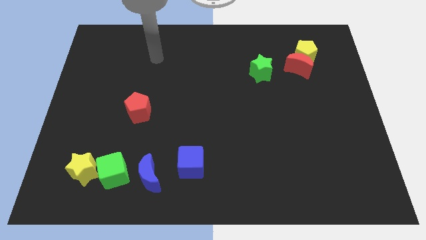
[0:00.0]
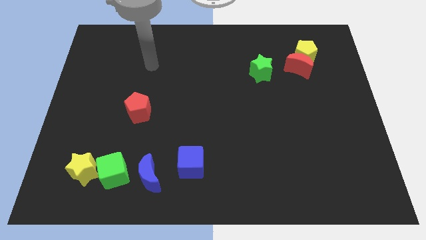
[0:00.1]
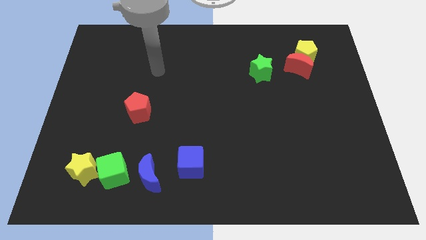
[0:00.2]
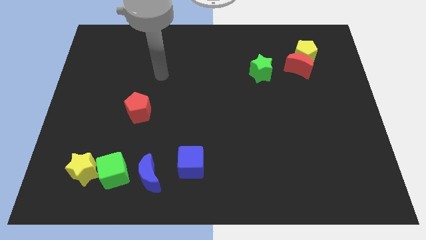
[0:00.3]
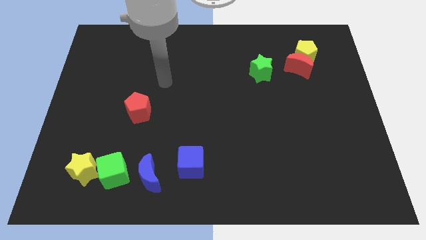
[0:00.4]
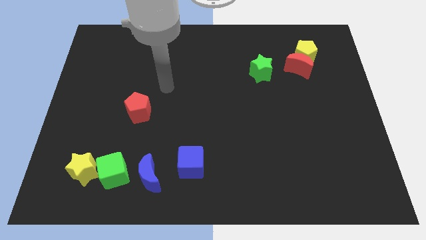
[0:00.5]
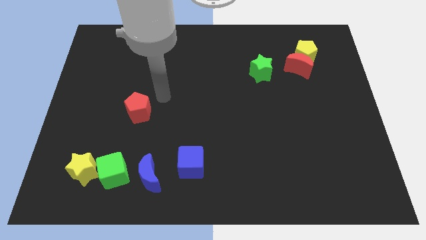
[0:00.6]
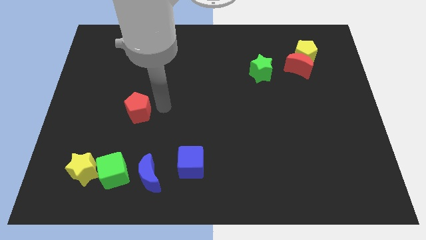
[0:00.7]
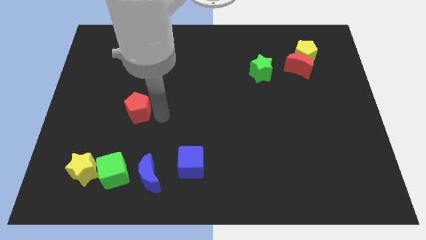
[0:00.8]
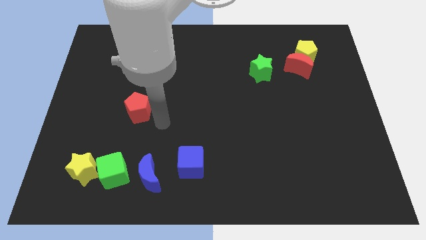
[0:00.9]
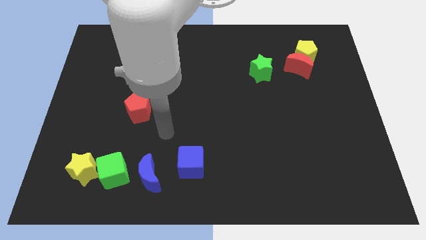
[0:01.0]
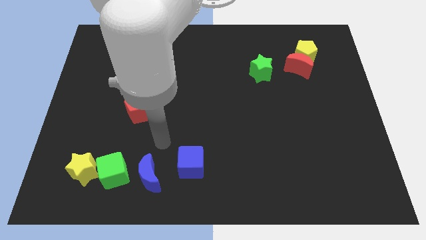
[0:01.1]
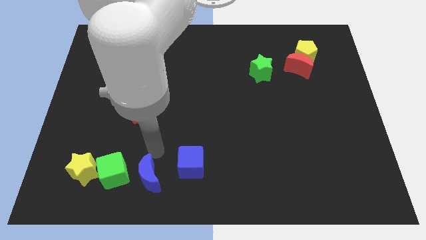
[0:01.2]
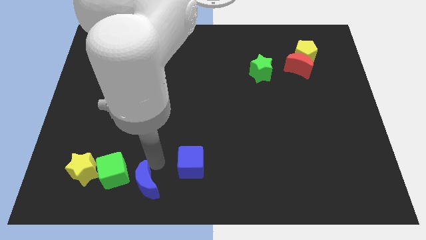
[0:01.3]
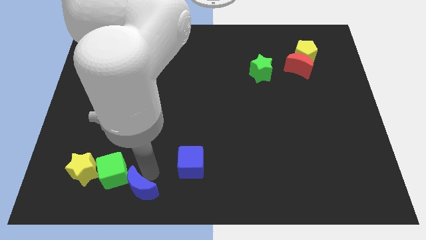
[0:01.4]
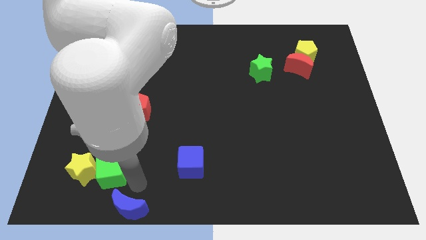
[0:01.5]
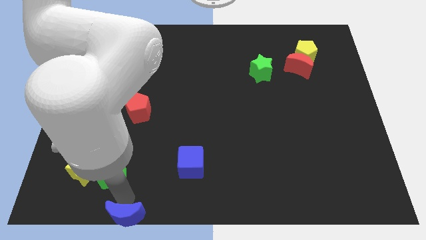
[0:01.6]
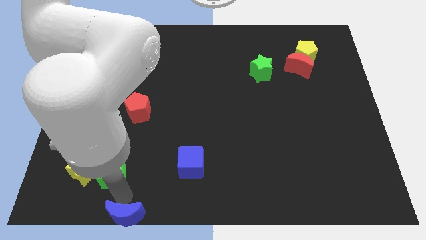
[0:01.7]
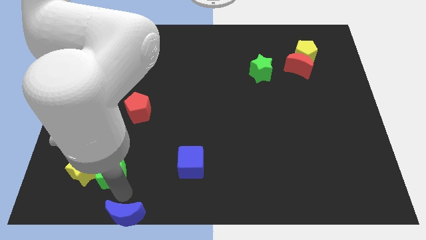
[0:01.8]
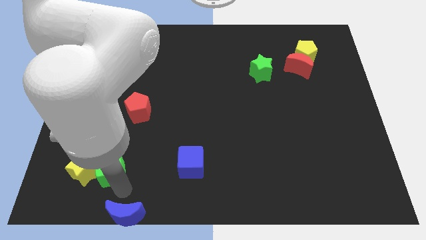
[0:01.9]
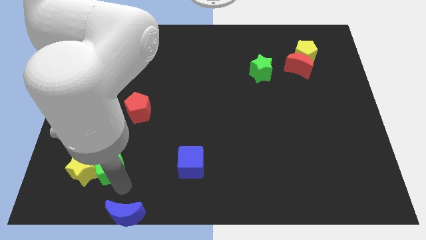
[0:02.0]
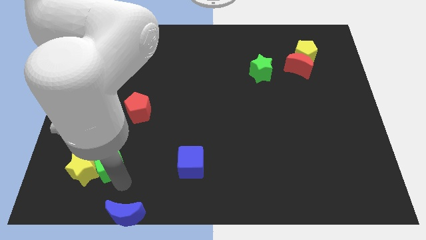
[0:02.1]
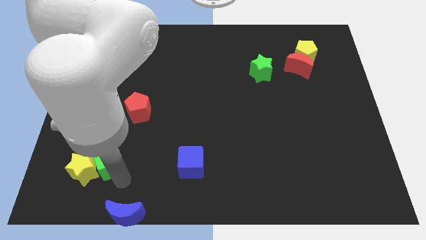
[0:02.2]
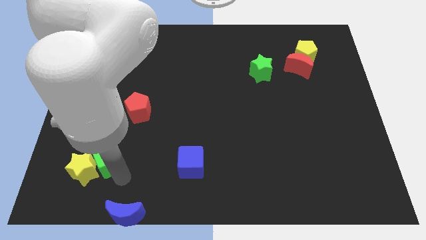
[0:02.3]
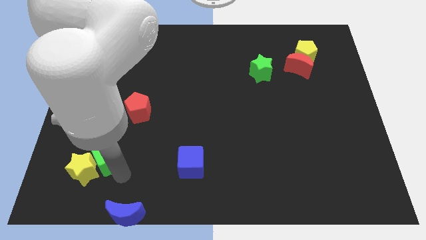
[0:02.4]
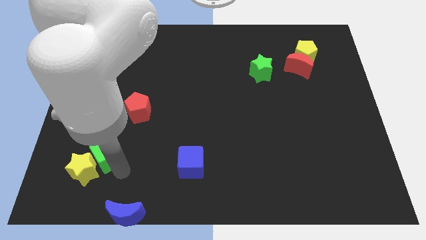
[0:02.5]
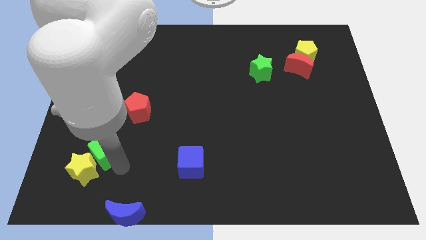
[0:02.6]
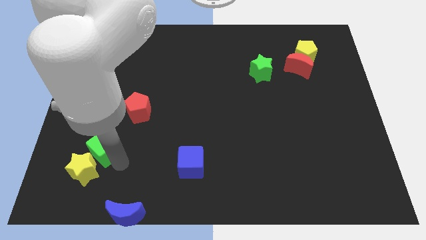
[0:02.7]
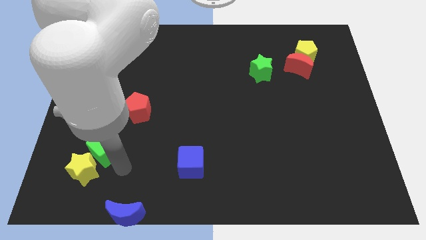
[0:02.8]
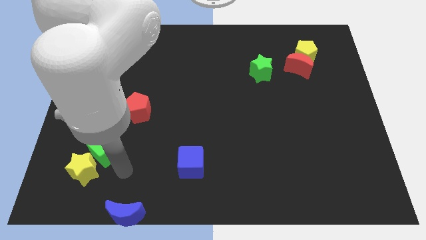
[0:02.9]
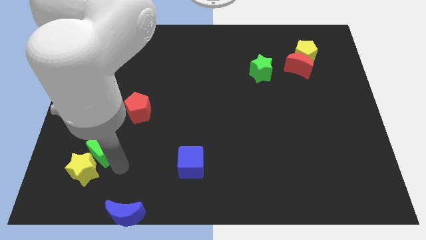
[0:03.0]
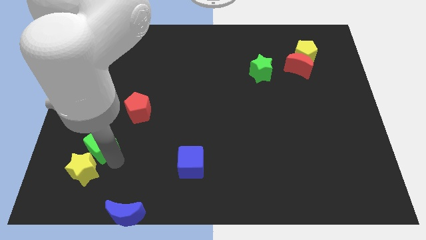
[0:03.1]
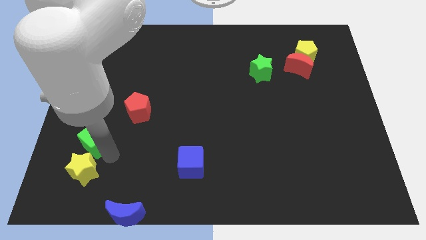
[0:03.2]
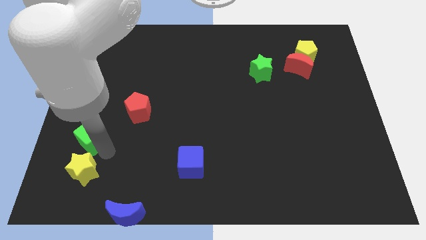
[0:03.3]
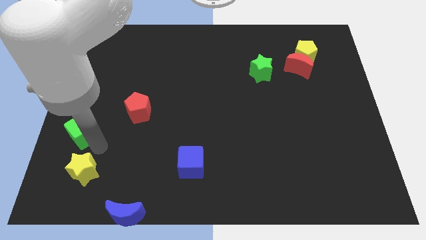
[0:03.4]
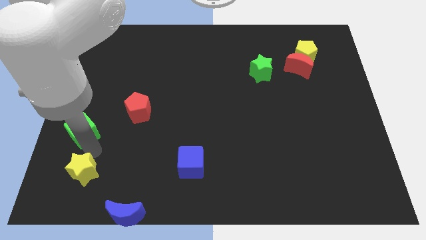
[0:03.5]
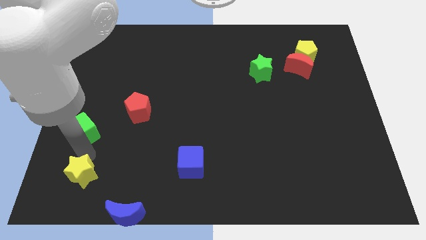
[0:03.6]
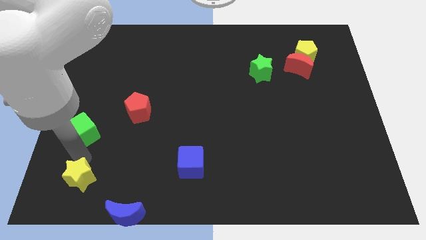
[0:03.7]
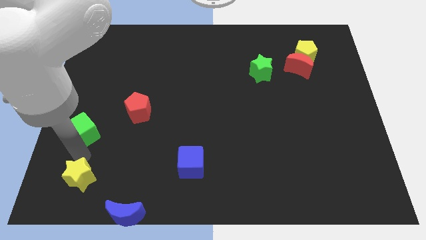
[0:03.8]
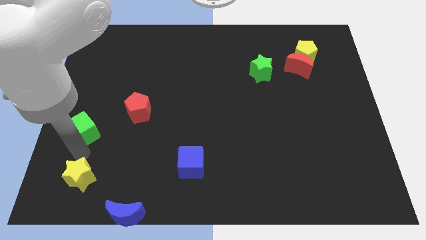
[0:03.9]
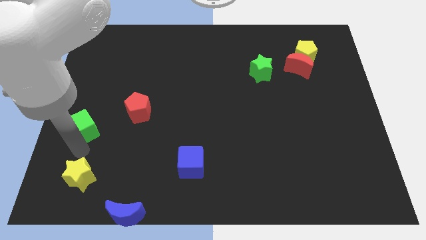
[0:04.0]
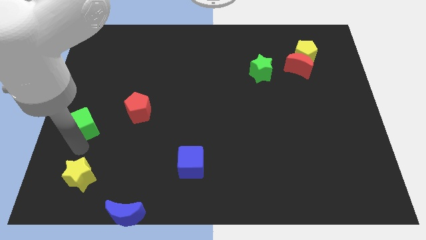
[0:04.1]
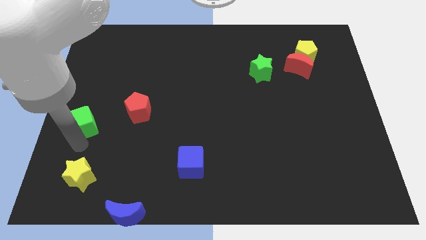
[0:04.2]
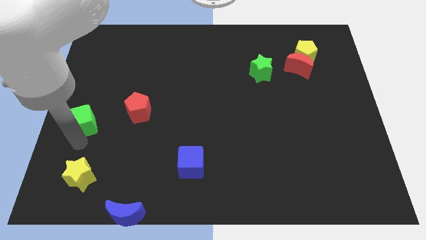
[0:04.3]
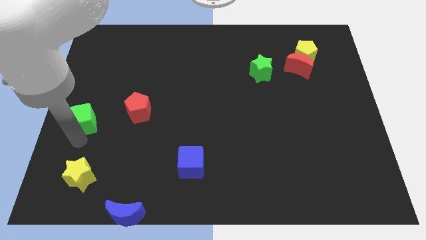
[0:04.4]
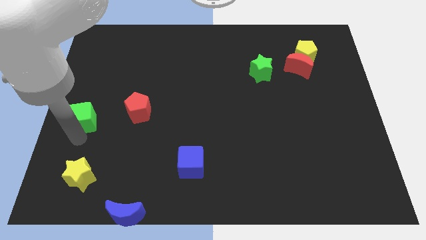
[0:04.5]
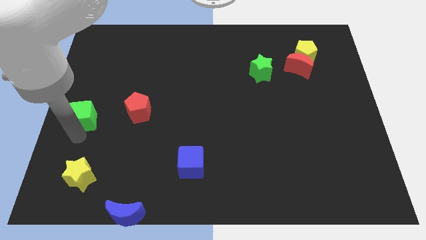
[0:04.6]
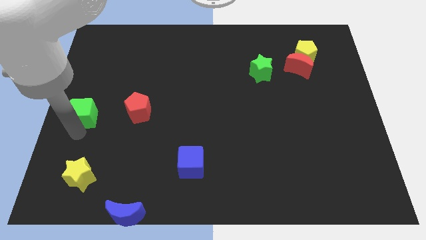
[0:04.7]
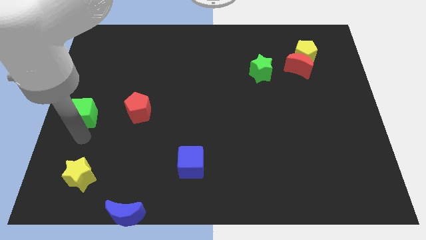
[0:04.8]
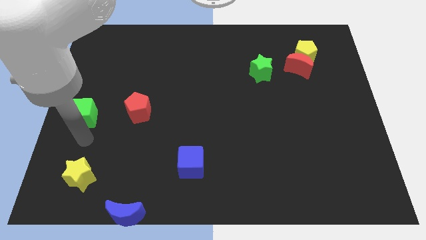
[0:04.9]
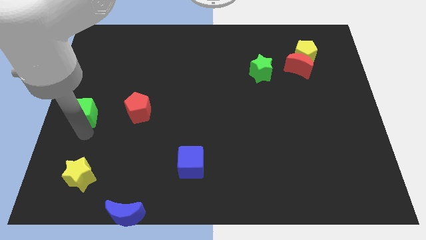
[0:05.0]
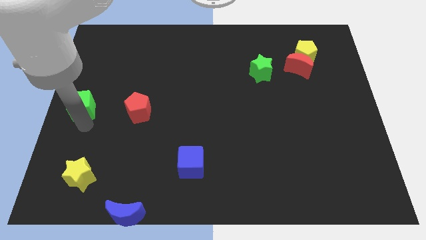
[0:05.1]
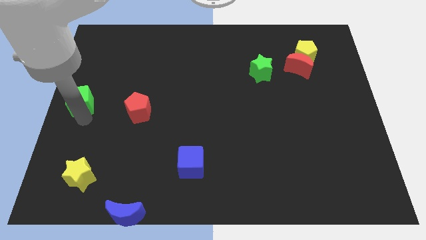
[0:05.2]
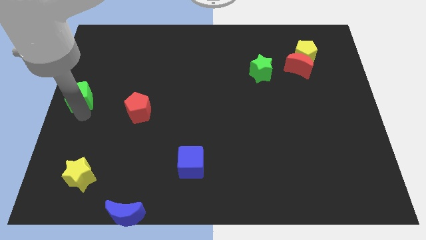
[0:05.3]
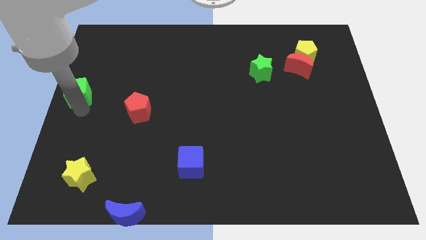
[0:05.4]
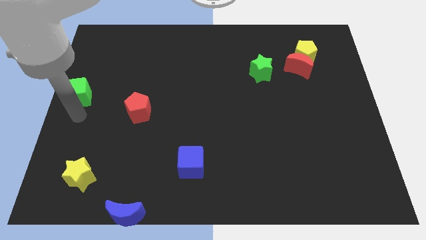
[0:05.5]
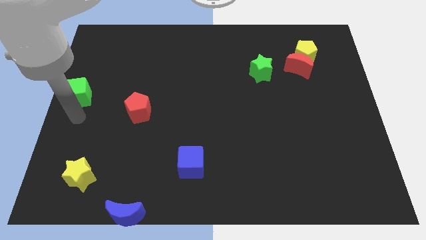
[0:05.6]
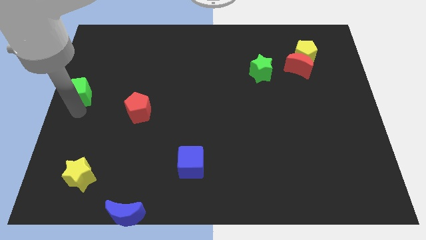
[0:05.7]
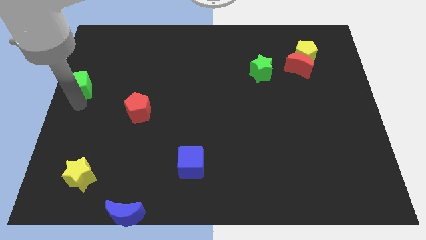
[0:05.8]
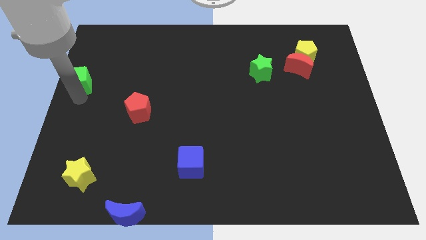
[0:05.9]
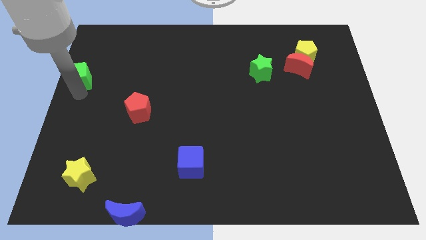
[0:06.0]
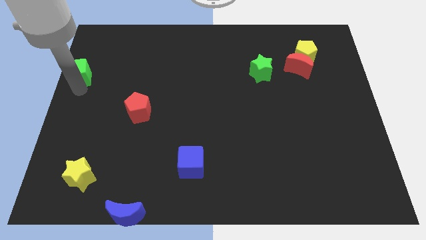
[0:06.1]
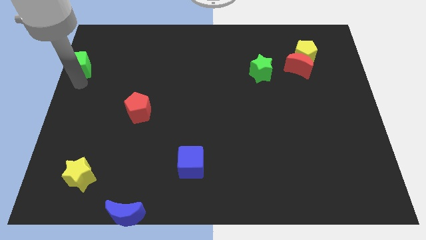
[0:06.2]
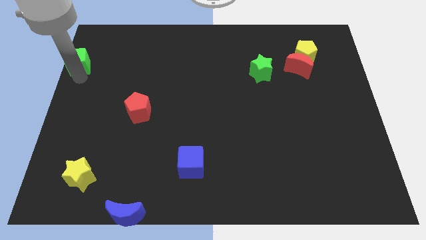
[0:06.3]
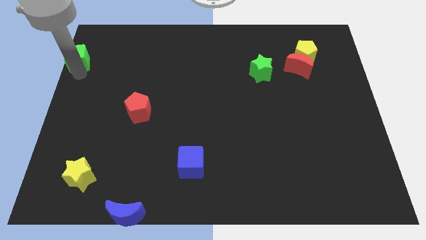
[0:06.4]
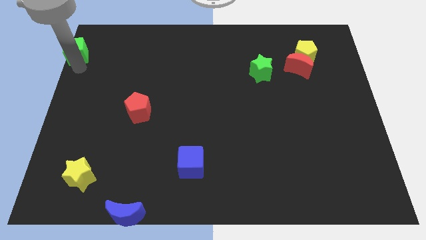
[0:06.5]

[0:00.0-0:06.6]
push the green cube to the top left of the board
